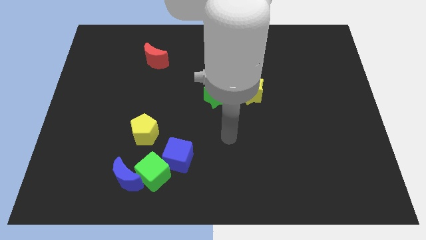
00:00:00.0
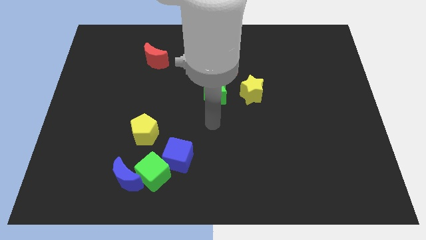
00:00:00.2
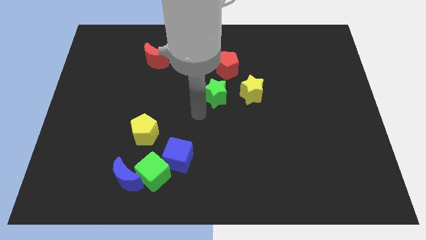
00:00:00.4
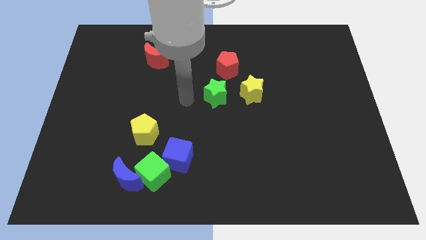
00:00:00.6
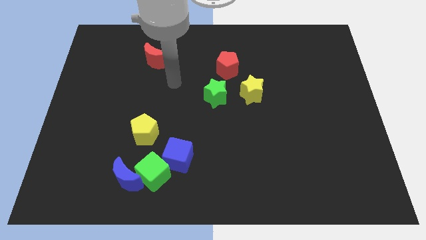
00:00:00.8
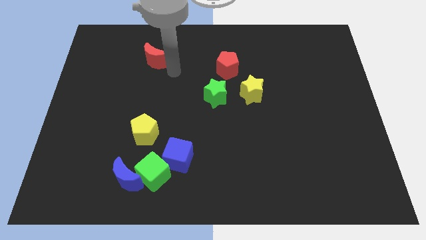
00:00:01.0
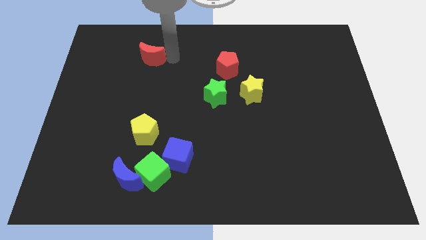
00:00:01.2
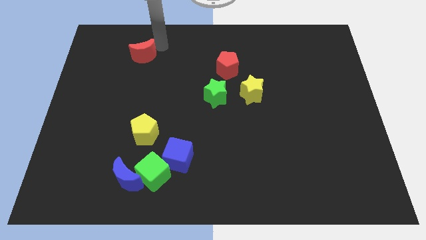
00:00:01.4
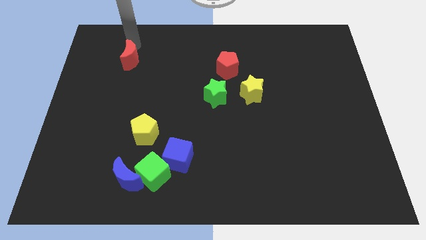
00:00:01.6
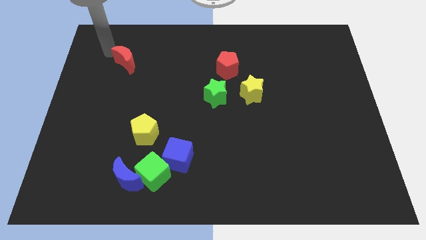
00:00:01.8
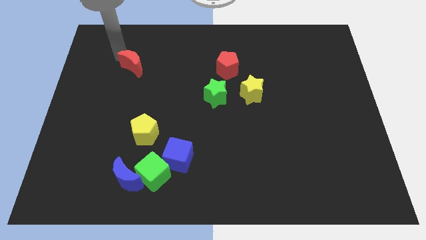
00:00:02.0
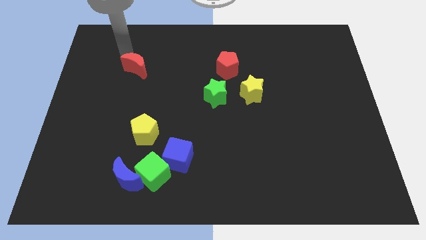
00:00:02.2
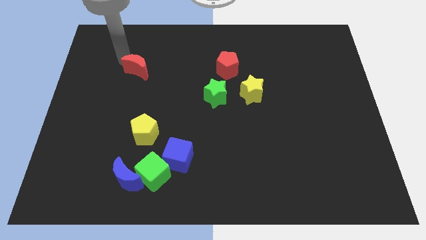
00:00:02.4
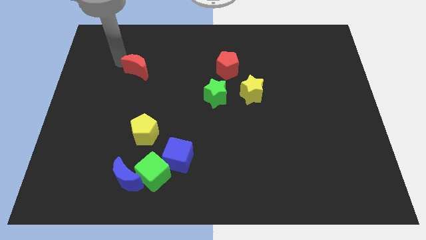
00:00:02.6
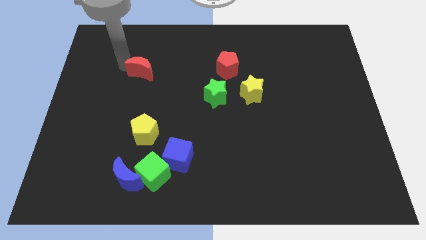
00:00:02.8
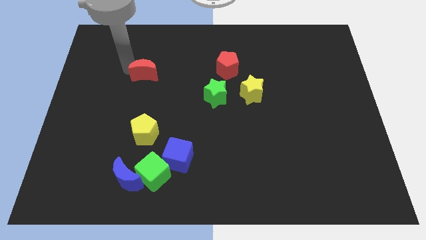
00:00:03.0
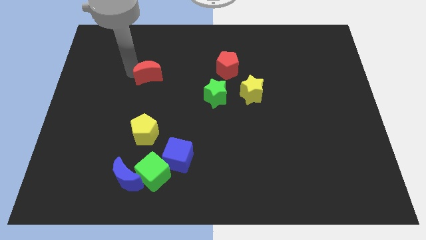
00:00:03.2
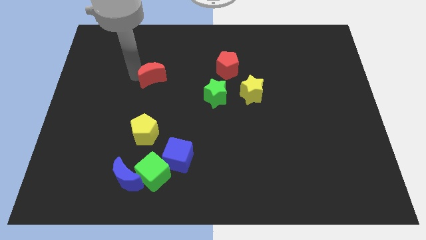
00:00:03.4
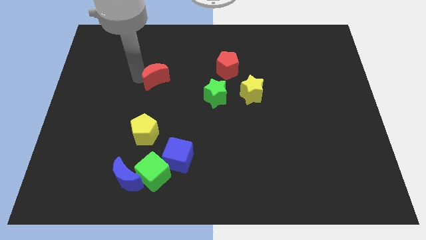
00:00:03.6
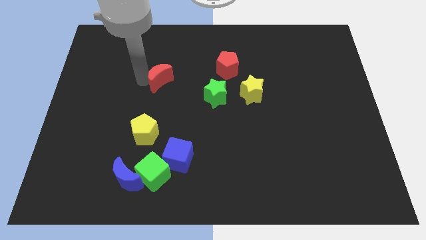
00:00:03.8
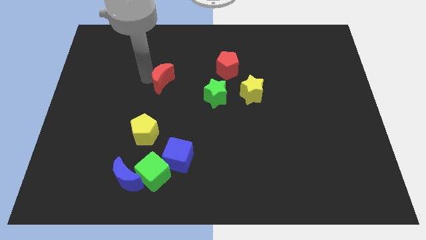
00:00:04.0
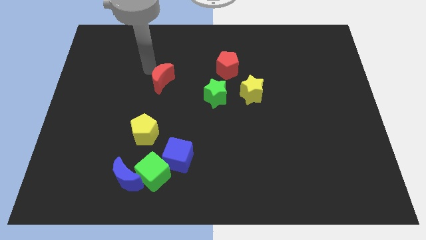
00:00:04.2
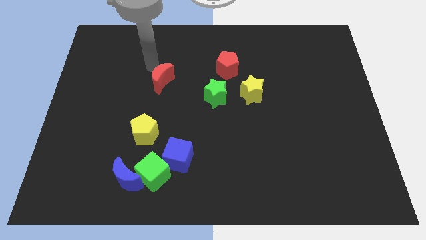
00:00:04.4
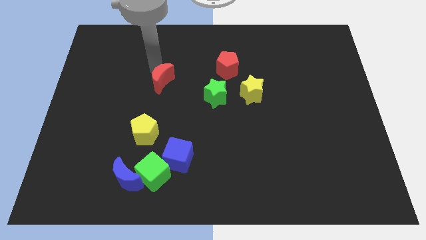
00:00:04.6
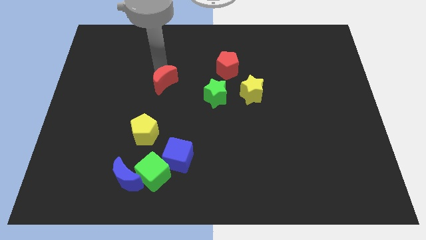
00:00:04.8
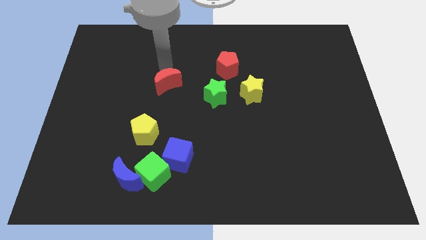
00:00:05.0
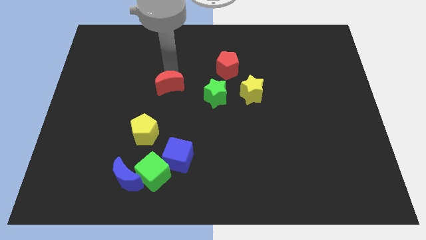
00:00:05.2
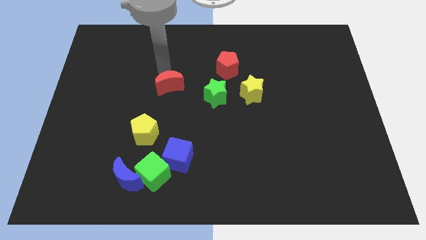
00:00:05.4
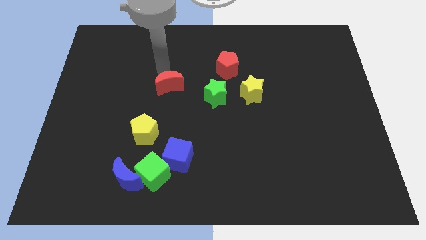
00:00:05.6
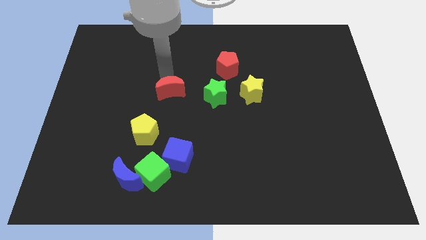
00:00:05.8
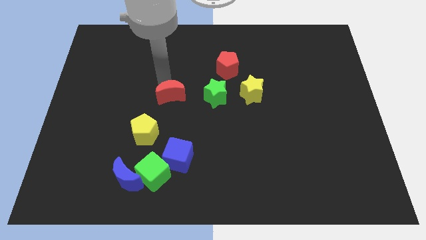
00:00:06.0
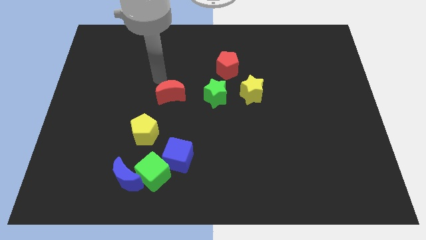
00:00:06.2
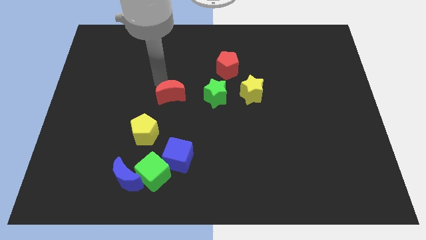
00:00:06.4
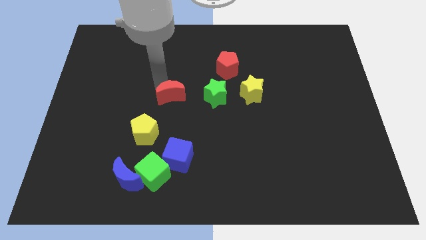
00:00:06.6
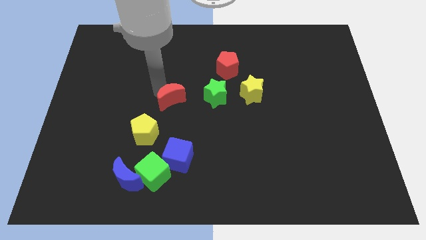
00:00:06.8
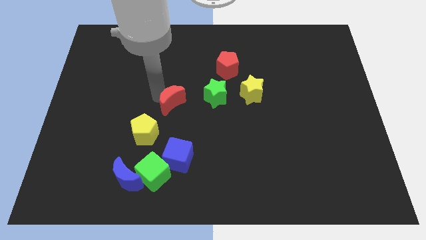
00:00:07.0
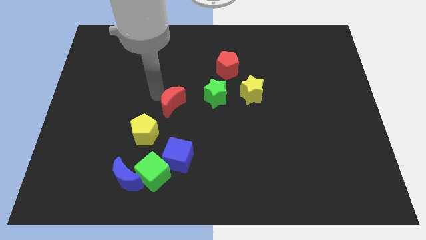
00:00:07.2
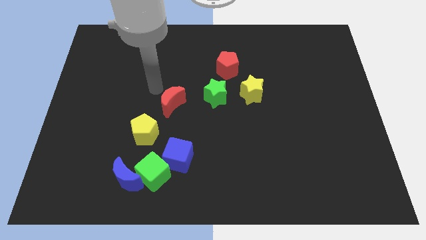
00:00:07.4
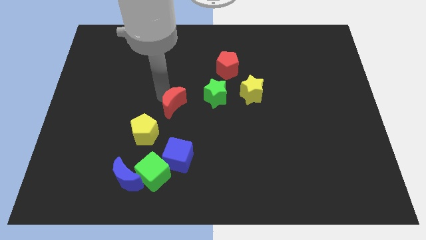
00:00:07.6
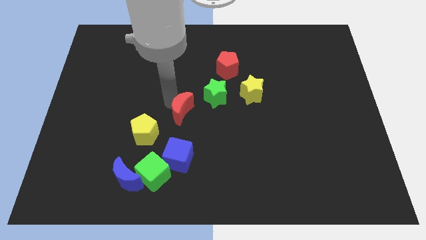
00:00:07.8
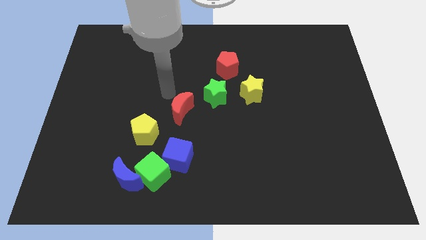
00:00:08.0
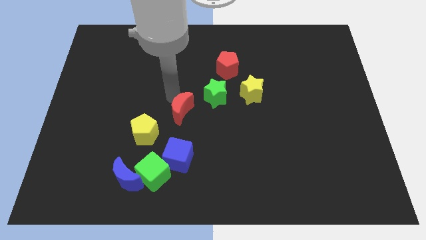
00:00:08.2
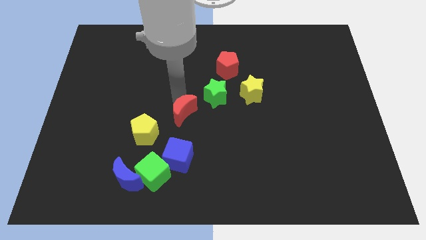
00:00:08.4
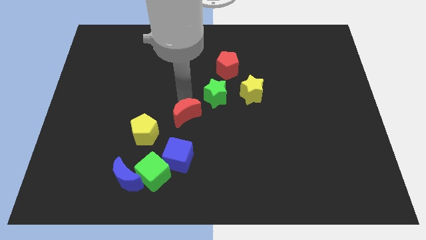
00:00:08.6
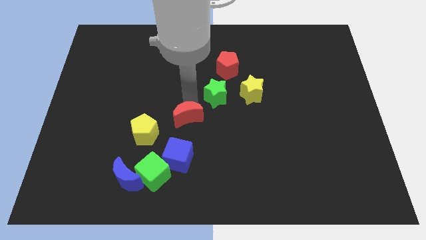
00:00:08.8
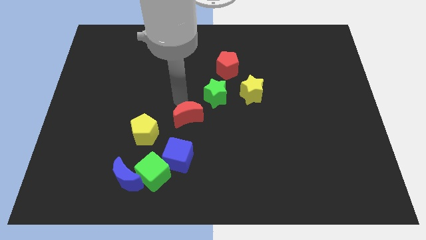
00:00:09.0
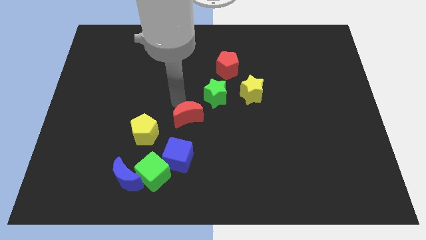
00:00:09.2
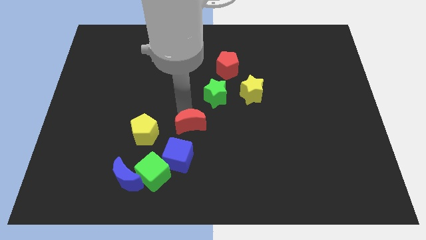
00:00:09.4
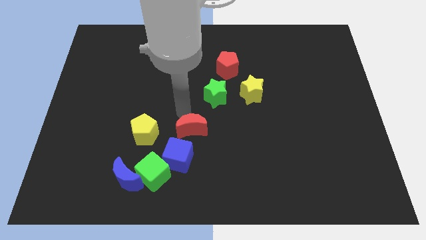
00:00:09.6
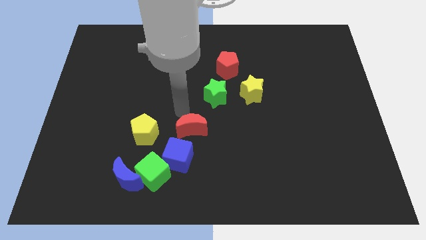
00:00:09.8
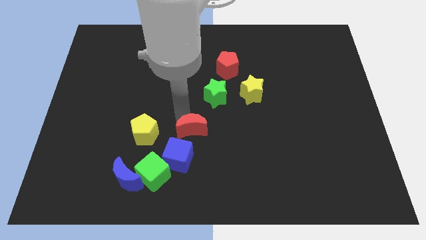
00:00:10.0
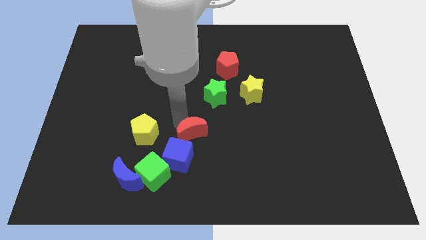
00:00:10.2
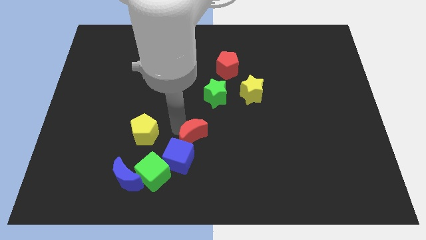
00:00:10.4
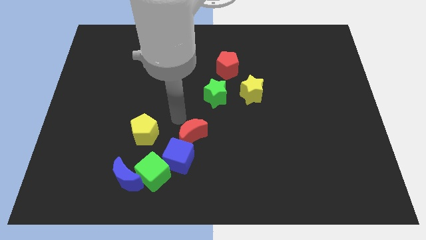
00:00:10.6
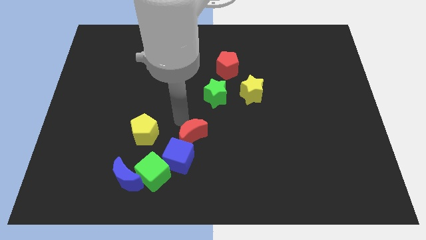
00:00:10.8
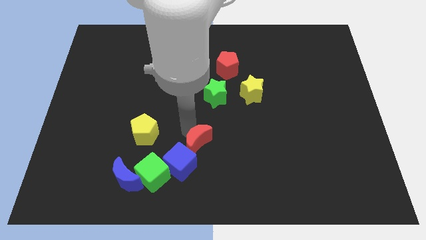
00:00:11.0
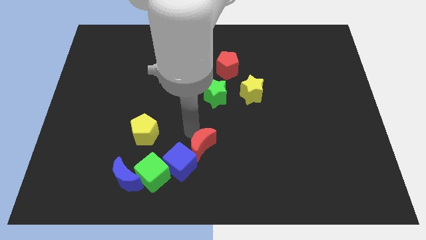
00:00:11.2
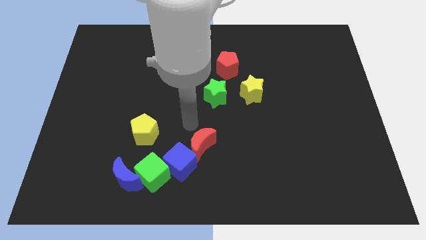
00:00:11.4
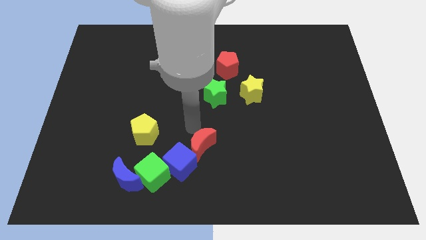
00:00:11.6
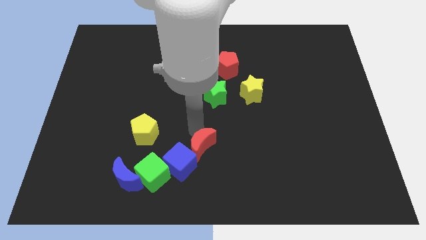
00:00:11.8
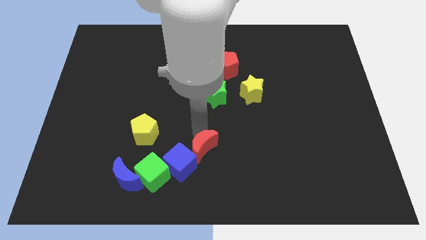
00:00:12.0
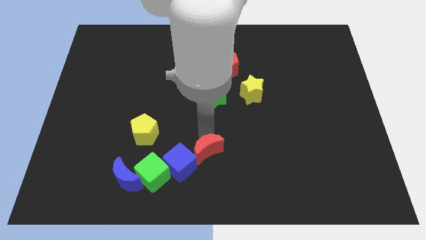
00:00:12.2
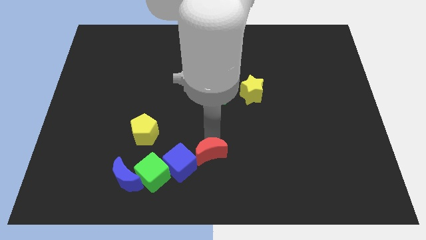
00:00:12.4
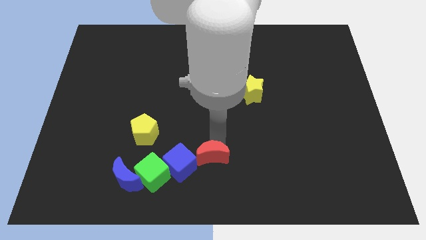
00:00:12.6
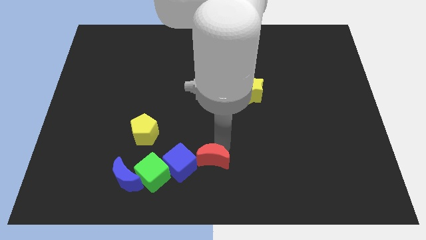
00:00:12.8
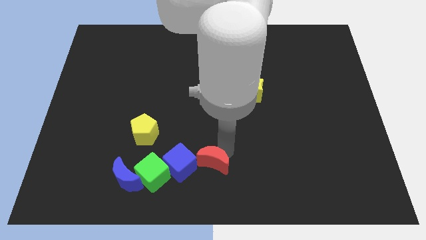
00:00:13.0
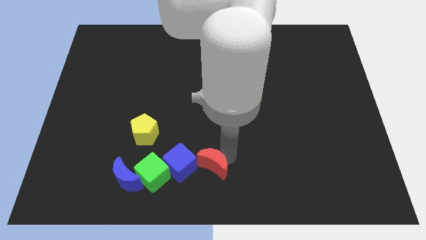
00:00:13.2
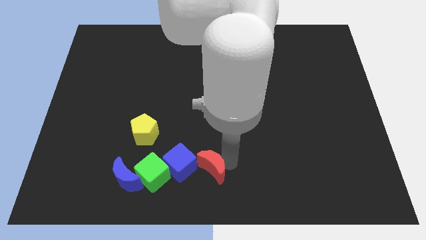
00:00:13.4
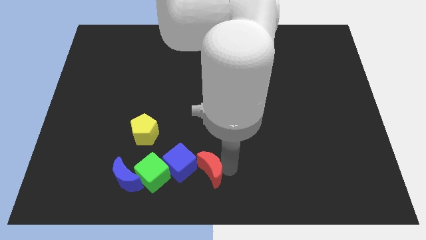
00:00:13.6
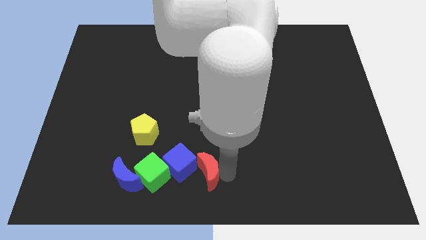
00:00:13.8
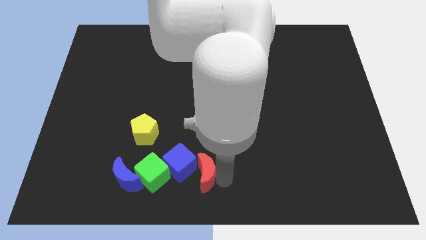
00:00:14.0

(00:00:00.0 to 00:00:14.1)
put the red moon to the right side of the blue moon
